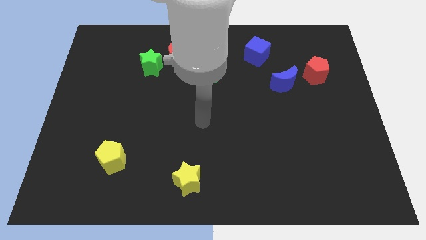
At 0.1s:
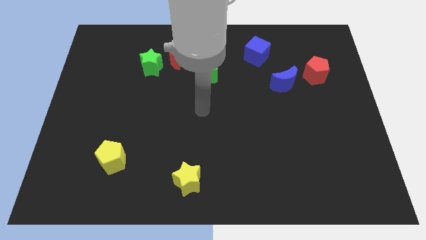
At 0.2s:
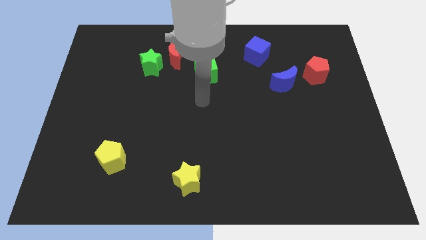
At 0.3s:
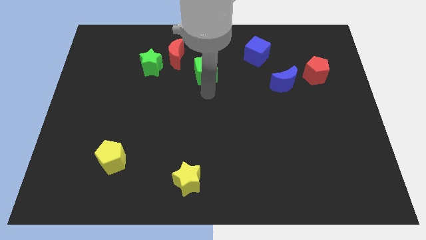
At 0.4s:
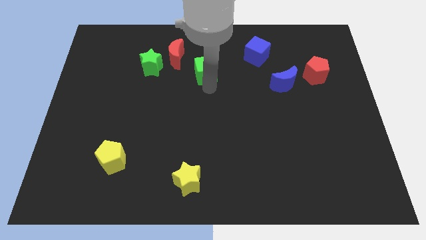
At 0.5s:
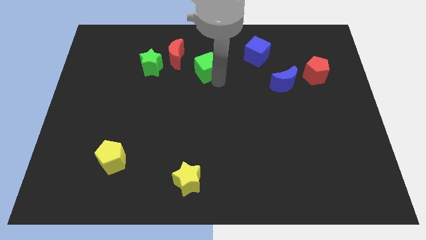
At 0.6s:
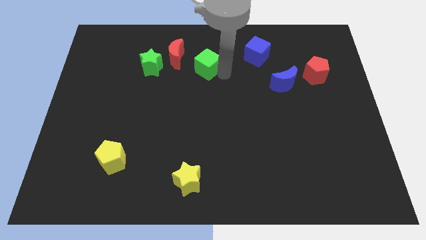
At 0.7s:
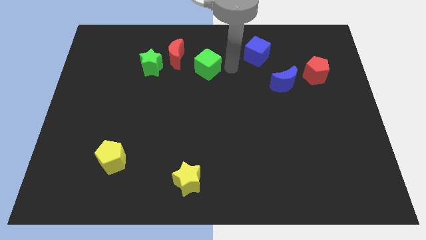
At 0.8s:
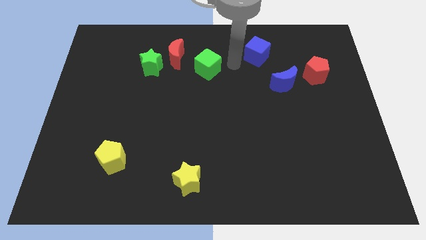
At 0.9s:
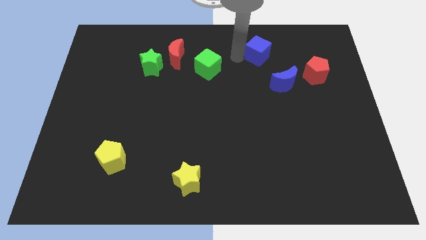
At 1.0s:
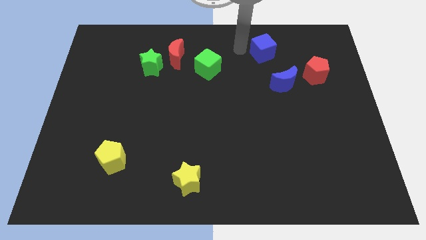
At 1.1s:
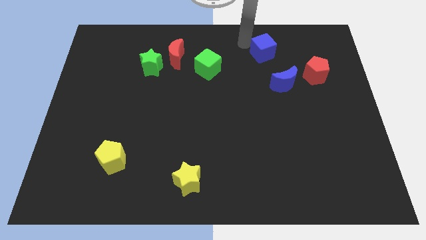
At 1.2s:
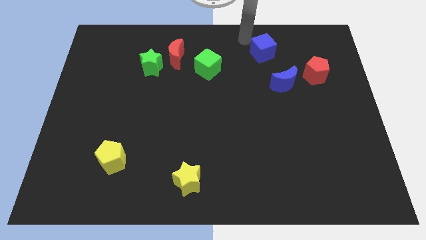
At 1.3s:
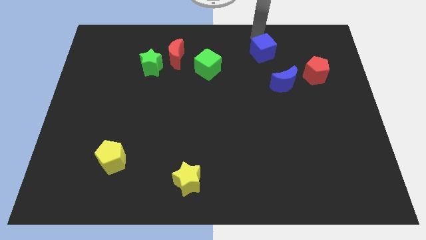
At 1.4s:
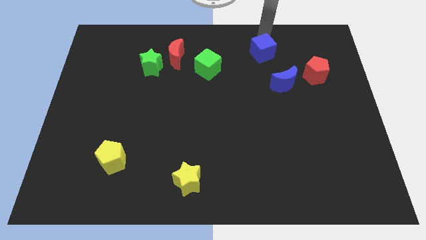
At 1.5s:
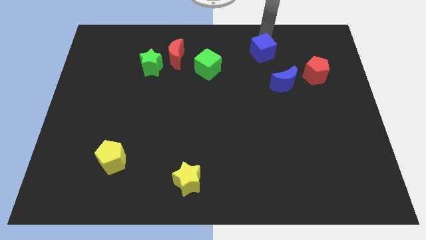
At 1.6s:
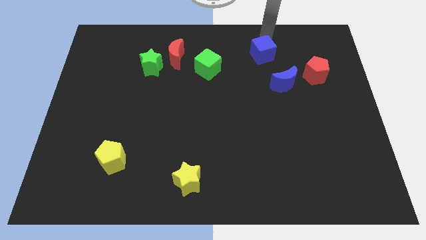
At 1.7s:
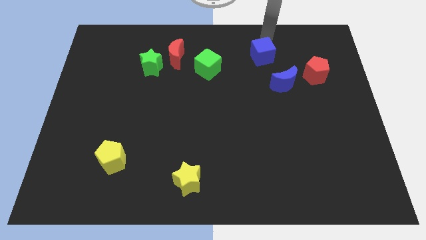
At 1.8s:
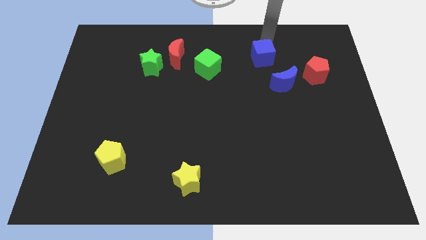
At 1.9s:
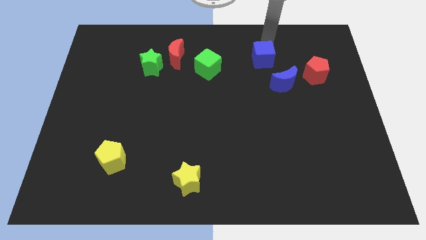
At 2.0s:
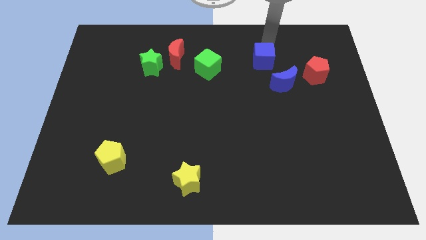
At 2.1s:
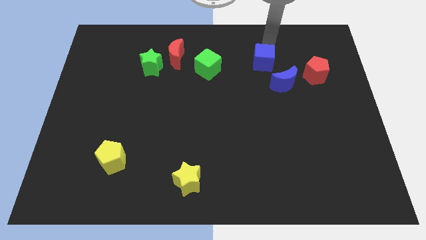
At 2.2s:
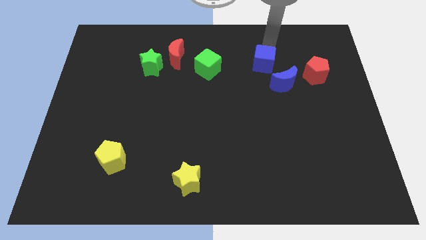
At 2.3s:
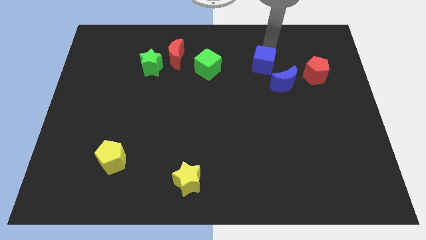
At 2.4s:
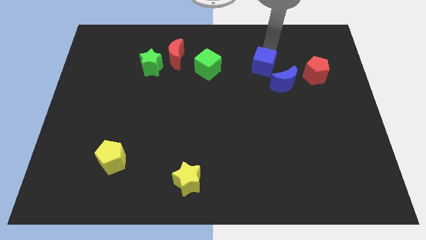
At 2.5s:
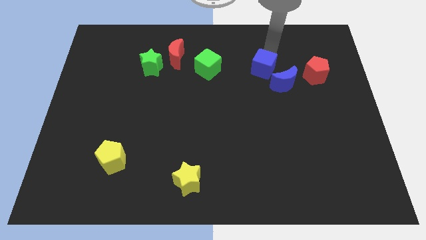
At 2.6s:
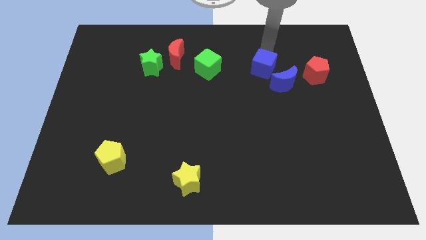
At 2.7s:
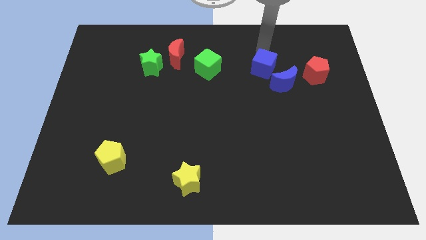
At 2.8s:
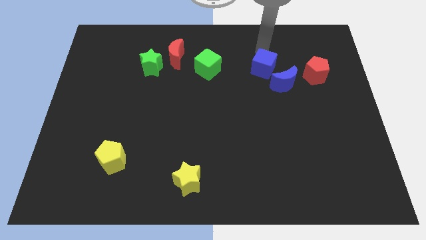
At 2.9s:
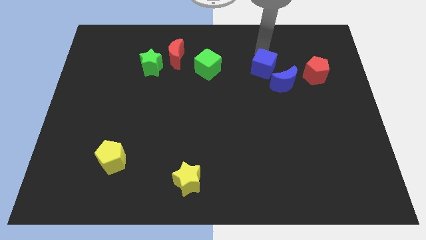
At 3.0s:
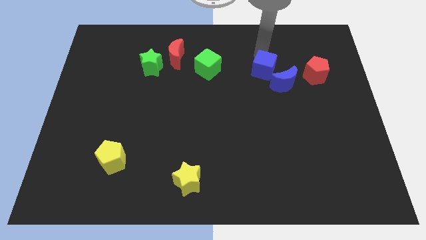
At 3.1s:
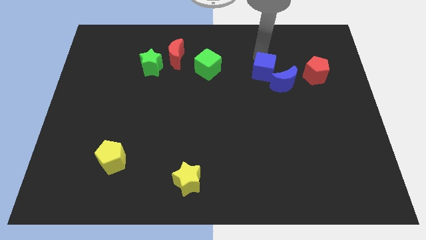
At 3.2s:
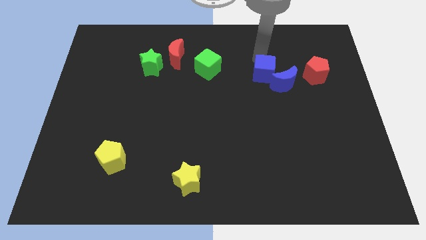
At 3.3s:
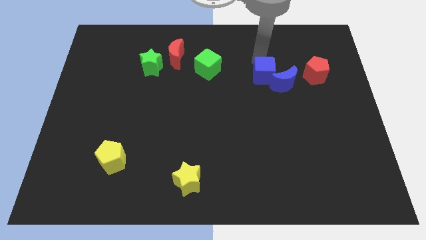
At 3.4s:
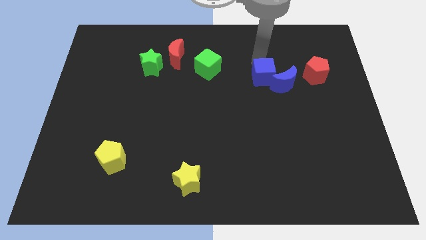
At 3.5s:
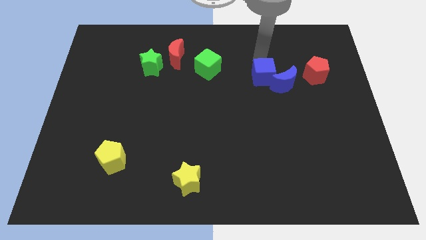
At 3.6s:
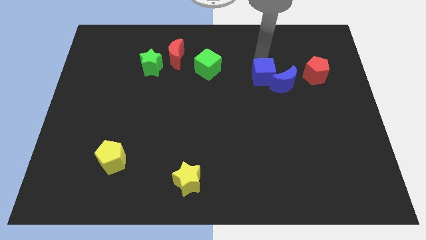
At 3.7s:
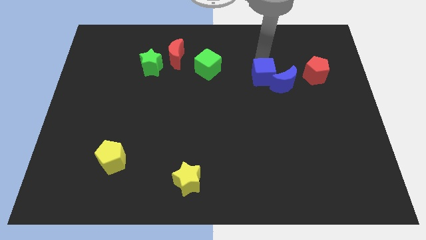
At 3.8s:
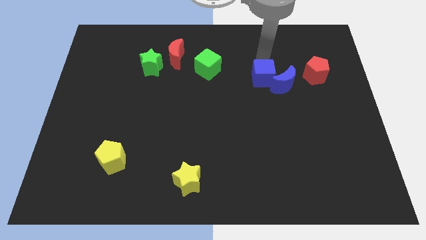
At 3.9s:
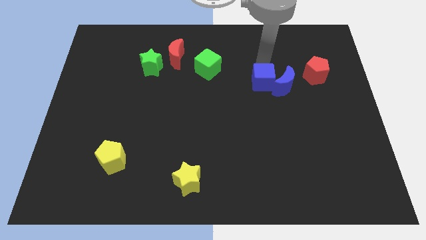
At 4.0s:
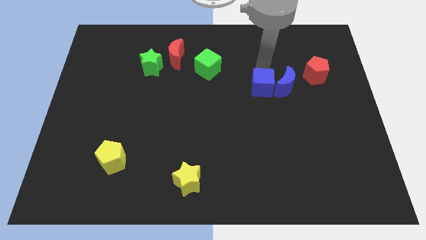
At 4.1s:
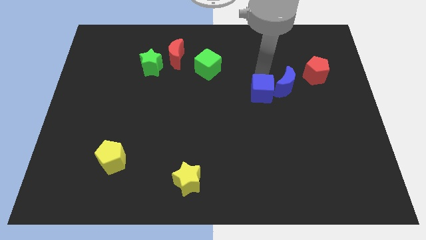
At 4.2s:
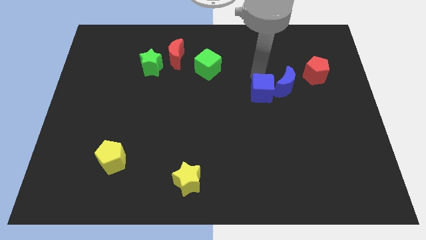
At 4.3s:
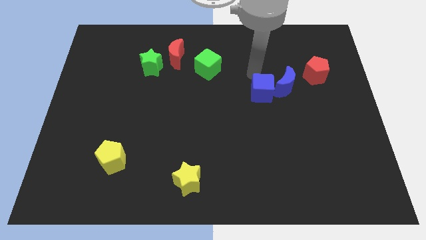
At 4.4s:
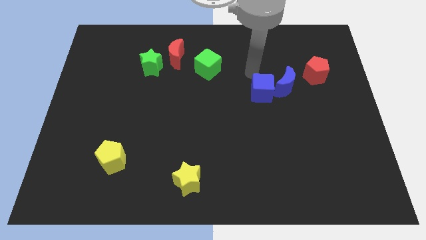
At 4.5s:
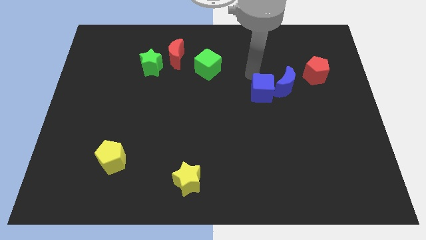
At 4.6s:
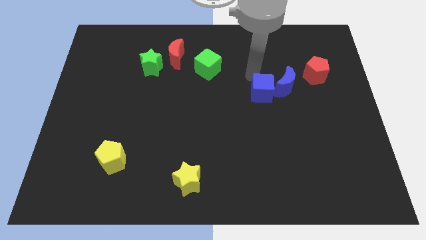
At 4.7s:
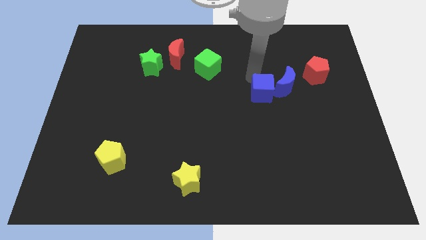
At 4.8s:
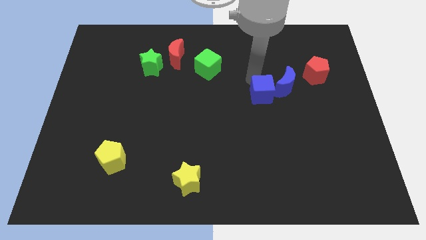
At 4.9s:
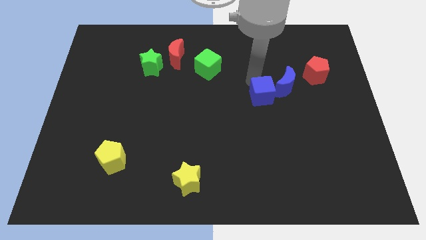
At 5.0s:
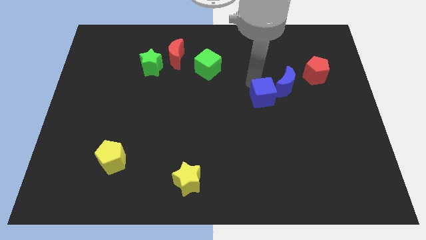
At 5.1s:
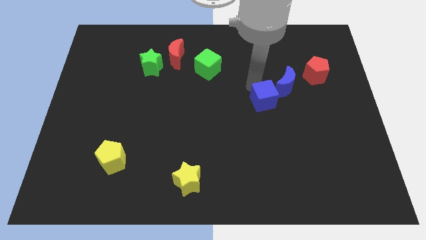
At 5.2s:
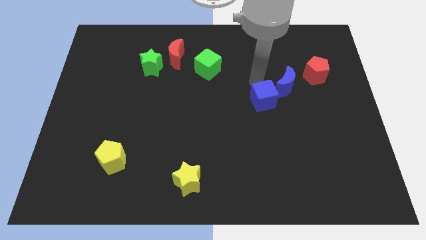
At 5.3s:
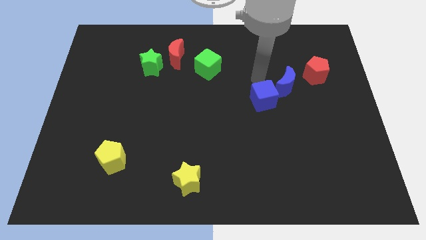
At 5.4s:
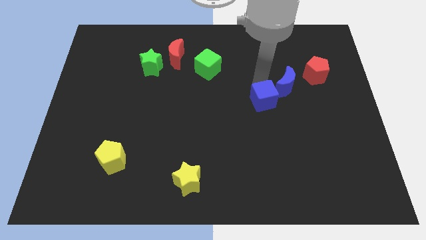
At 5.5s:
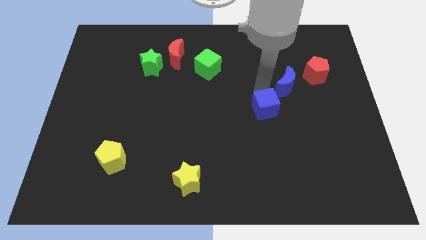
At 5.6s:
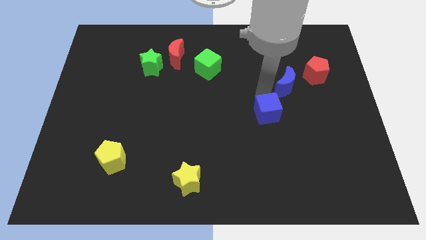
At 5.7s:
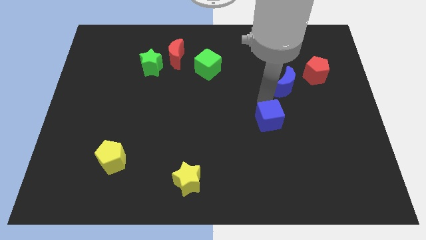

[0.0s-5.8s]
push the blue cube downwards

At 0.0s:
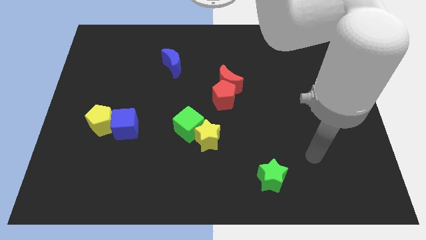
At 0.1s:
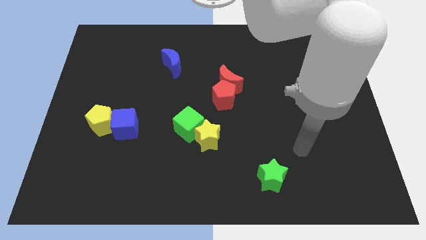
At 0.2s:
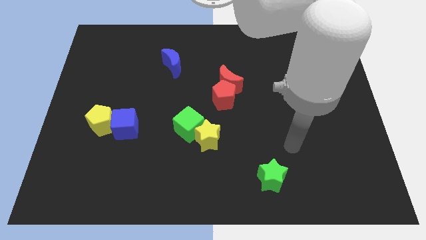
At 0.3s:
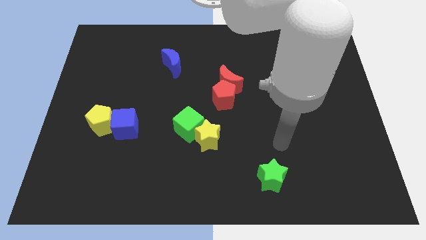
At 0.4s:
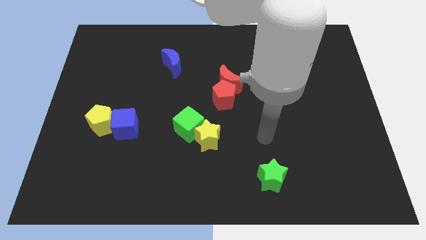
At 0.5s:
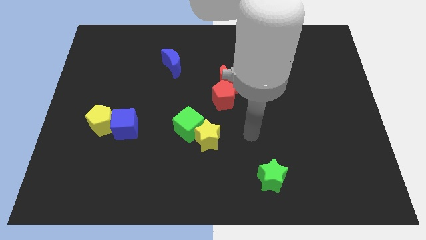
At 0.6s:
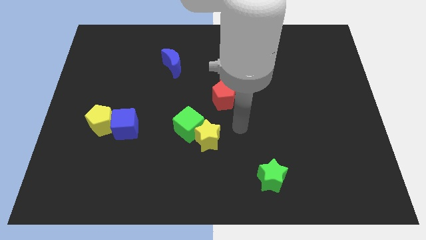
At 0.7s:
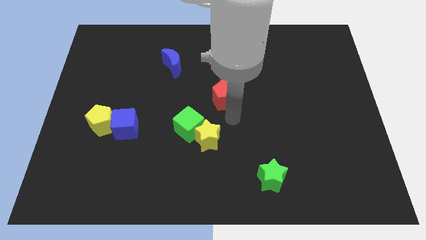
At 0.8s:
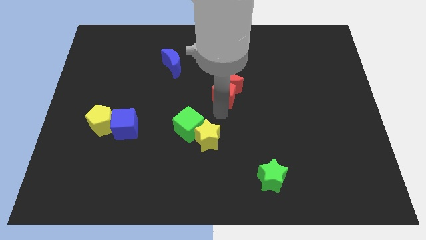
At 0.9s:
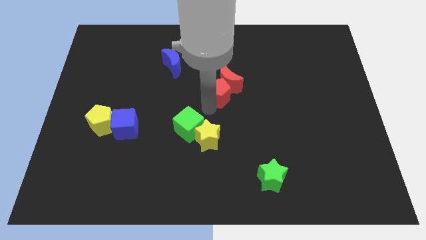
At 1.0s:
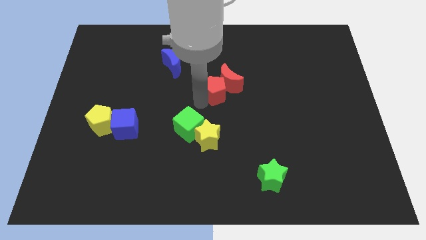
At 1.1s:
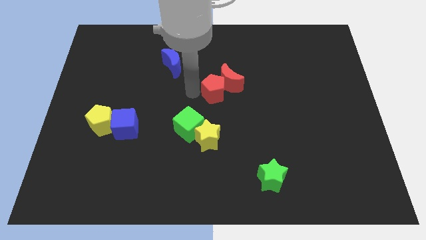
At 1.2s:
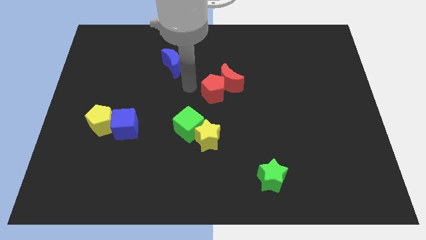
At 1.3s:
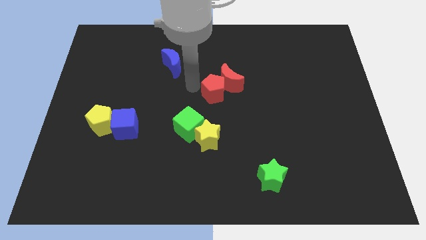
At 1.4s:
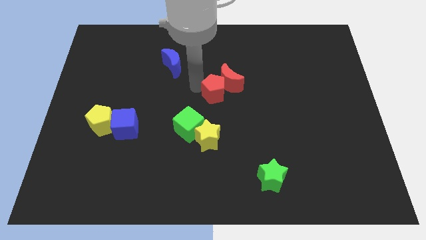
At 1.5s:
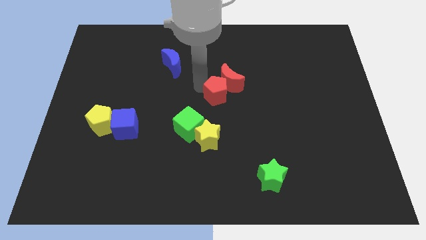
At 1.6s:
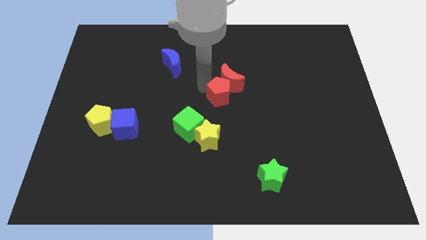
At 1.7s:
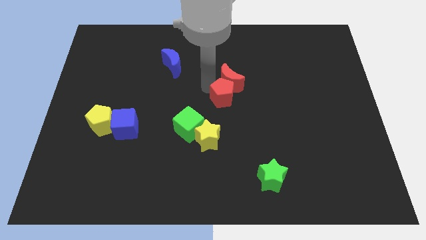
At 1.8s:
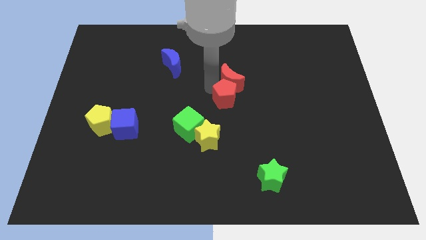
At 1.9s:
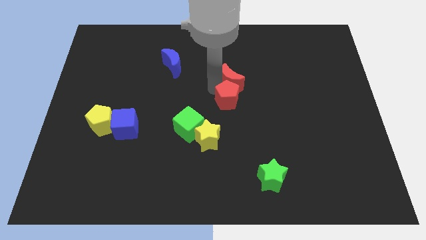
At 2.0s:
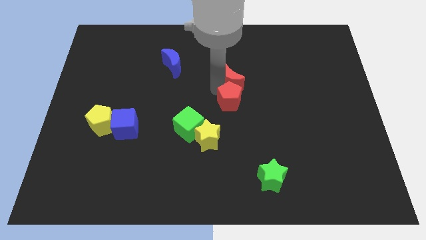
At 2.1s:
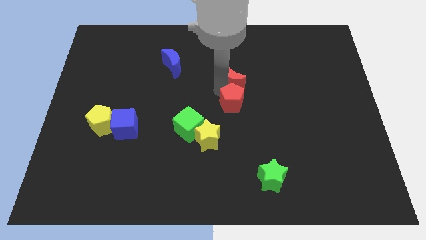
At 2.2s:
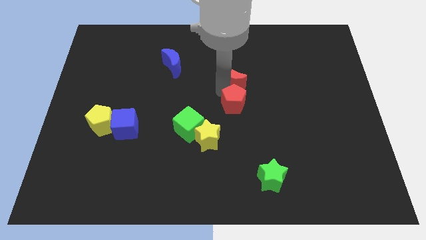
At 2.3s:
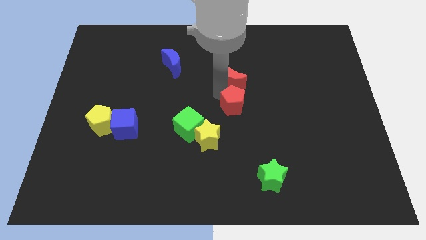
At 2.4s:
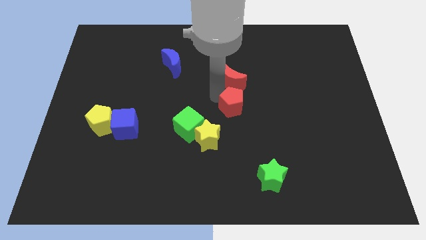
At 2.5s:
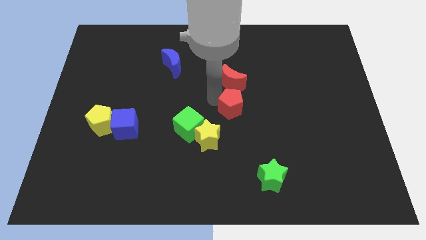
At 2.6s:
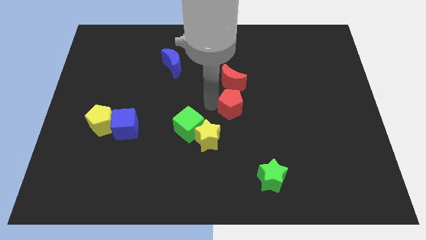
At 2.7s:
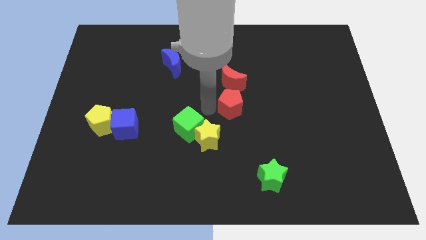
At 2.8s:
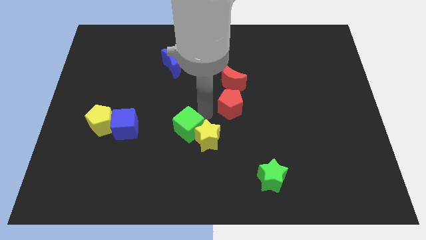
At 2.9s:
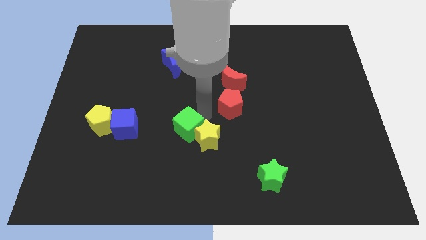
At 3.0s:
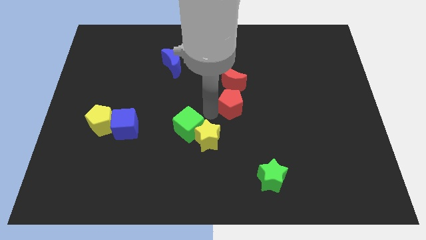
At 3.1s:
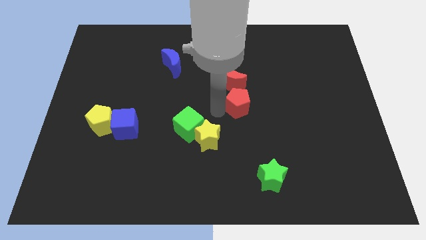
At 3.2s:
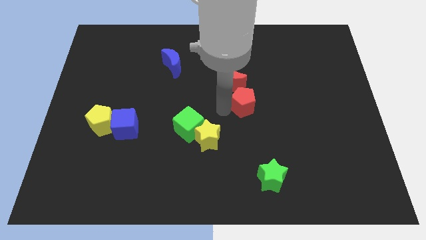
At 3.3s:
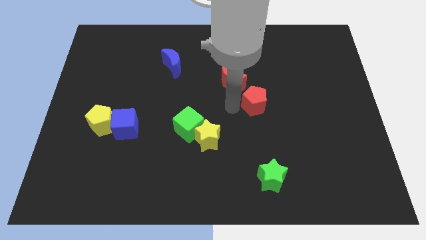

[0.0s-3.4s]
slightly move the red pentagon to the right
